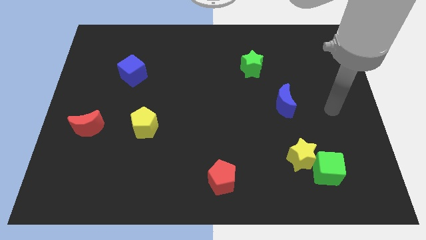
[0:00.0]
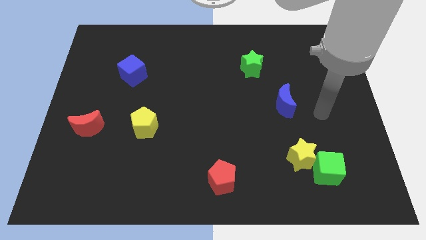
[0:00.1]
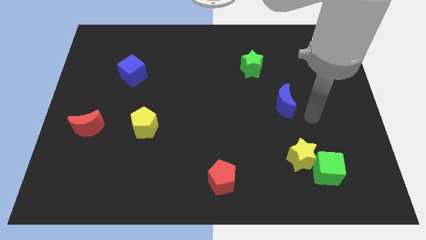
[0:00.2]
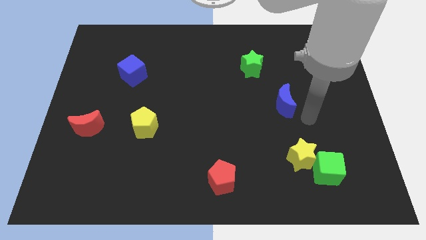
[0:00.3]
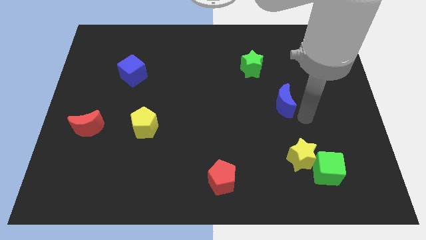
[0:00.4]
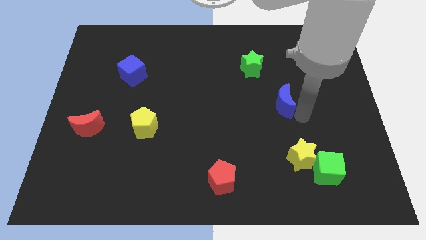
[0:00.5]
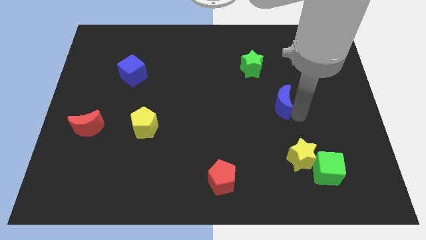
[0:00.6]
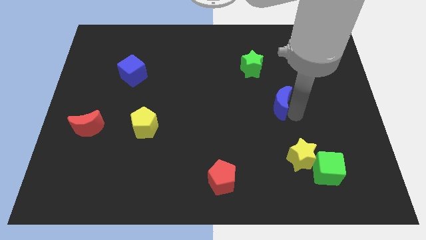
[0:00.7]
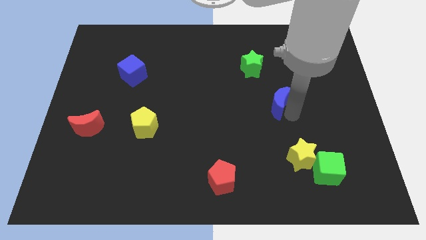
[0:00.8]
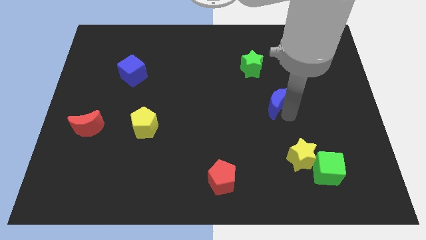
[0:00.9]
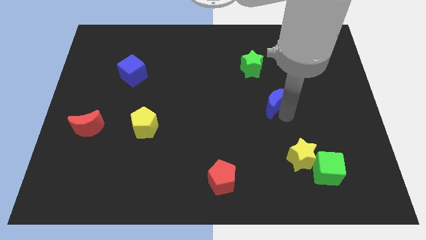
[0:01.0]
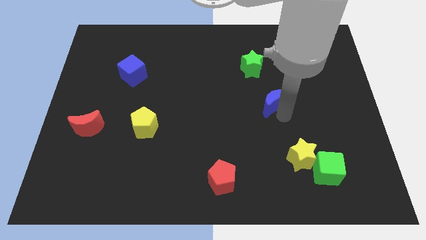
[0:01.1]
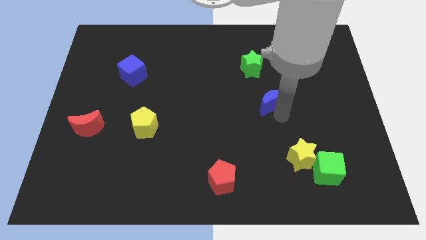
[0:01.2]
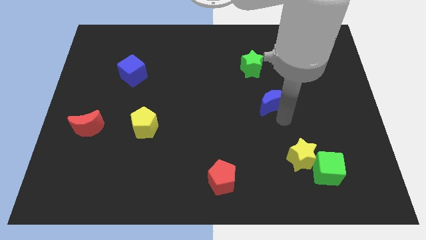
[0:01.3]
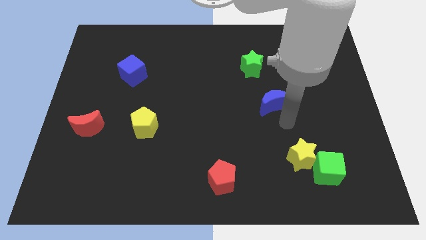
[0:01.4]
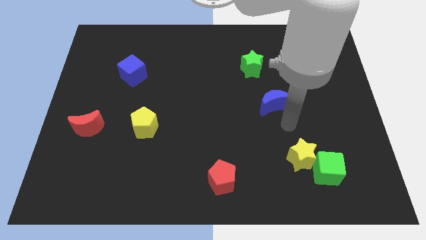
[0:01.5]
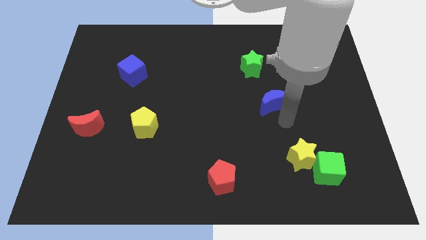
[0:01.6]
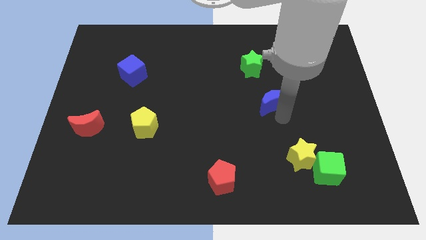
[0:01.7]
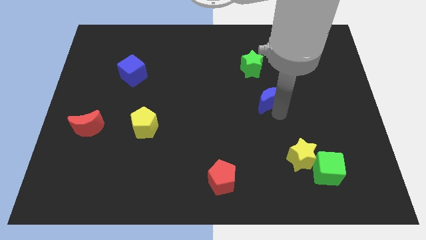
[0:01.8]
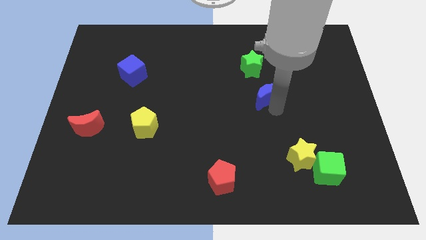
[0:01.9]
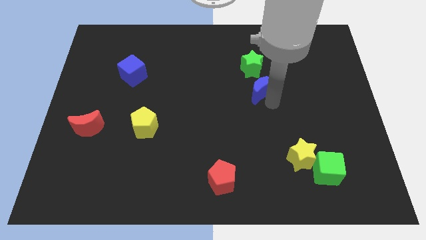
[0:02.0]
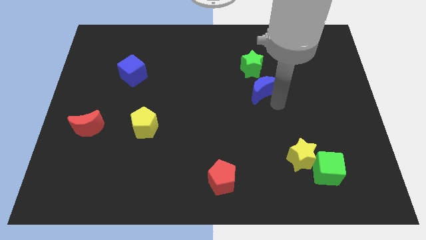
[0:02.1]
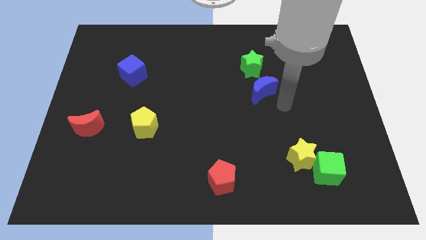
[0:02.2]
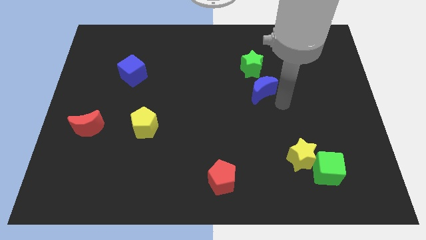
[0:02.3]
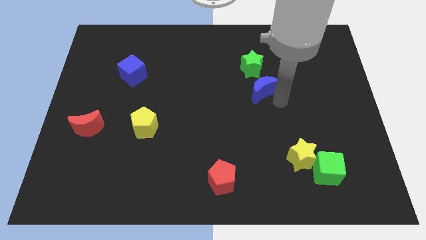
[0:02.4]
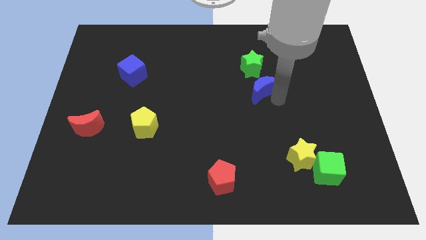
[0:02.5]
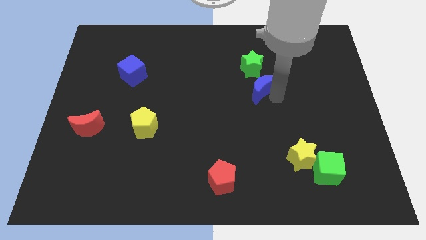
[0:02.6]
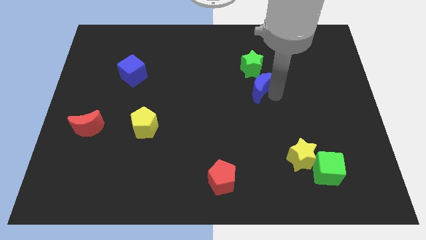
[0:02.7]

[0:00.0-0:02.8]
slide the blue moon a little bit up and to the left

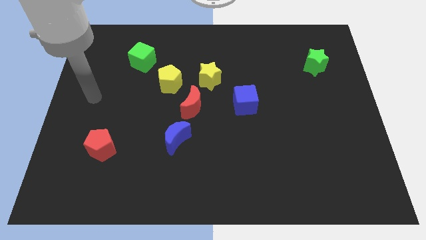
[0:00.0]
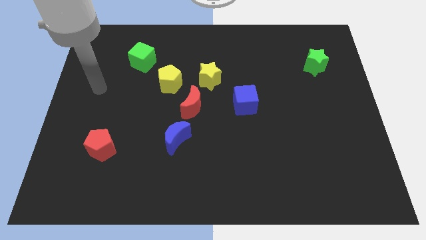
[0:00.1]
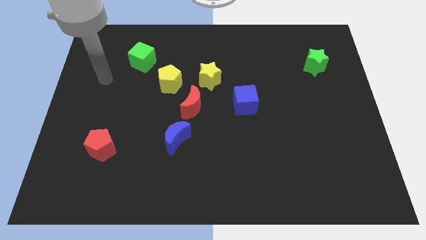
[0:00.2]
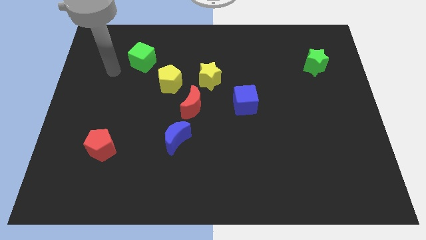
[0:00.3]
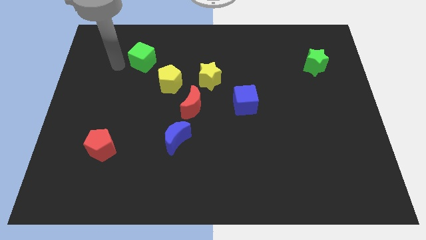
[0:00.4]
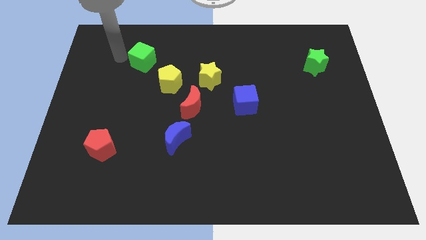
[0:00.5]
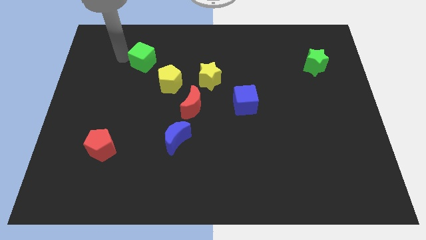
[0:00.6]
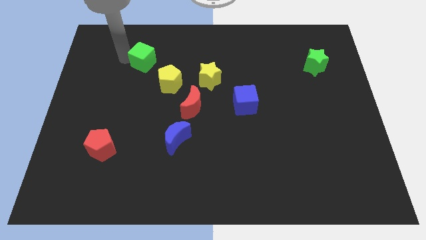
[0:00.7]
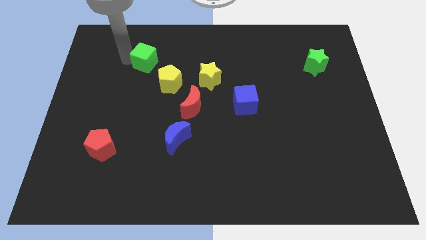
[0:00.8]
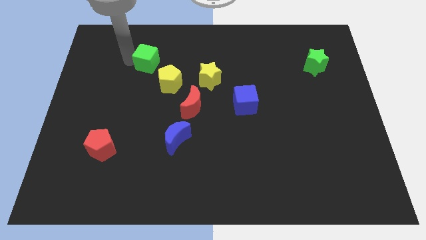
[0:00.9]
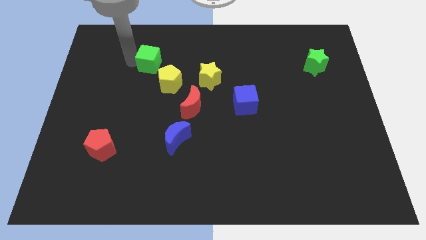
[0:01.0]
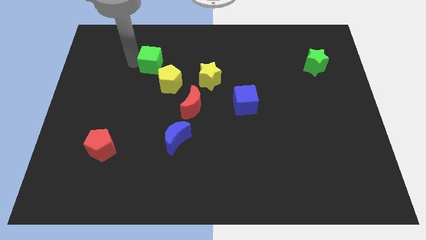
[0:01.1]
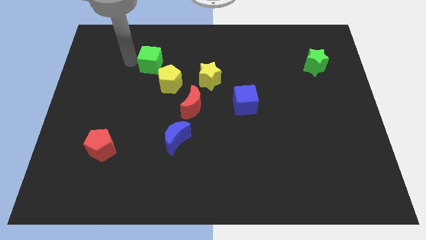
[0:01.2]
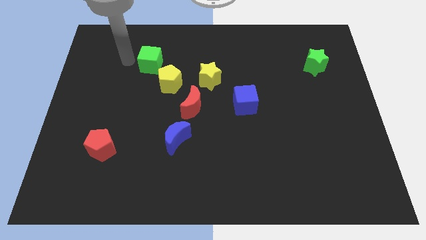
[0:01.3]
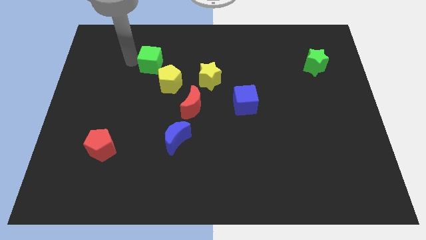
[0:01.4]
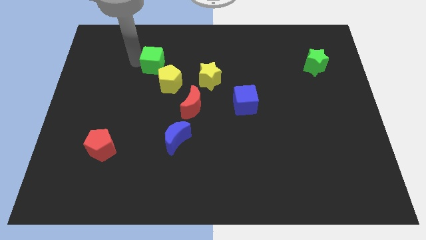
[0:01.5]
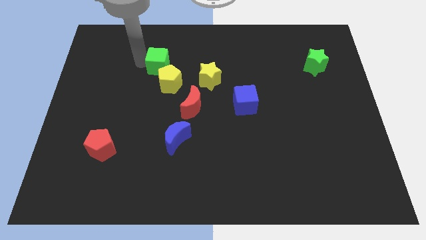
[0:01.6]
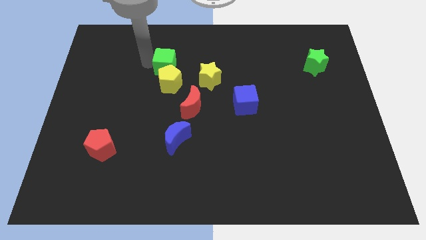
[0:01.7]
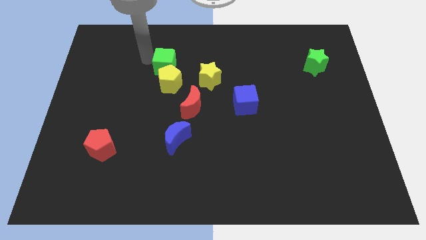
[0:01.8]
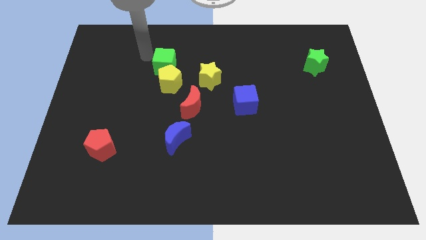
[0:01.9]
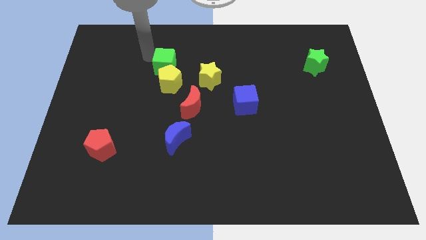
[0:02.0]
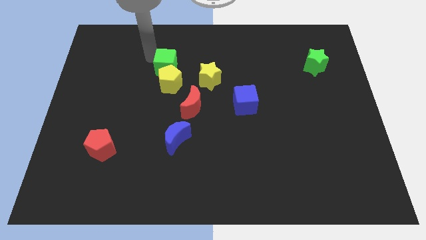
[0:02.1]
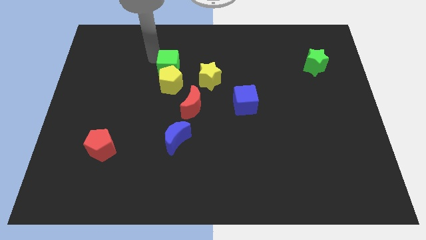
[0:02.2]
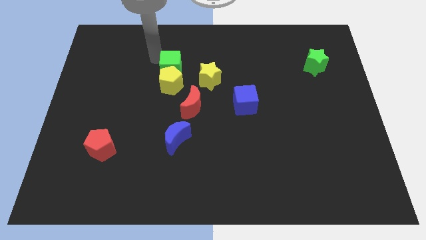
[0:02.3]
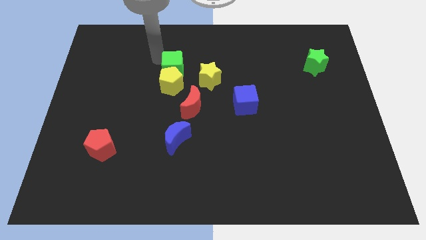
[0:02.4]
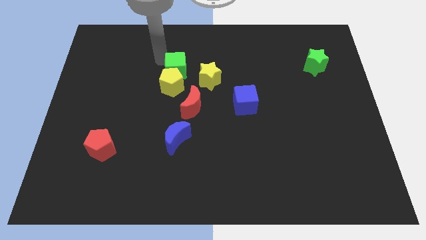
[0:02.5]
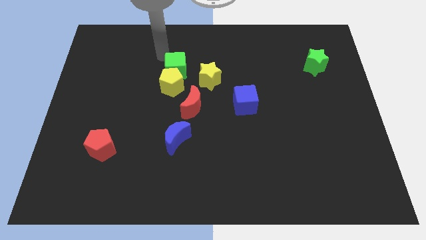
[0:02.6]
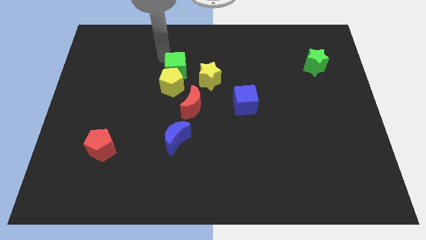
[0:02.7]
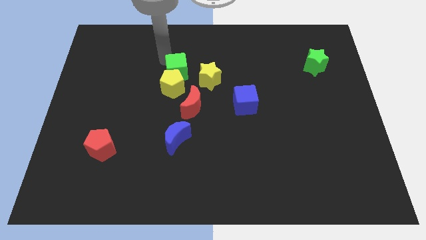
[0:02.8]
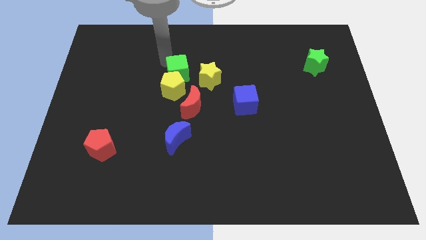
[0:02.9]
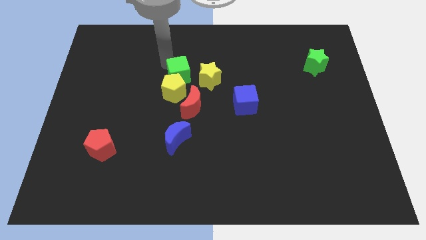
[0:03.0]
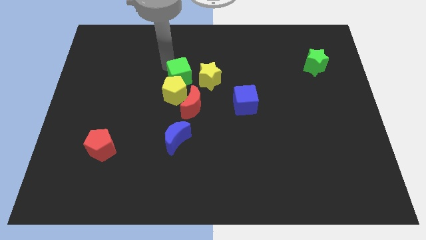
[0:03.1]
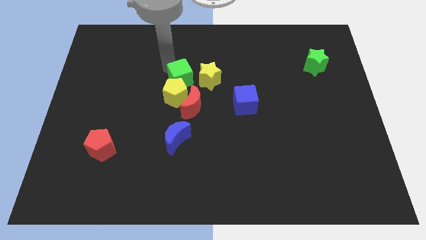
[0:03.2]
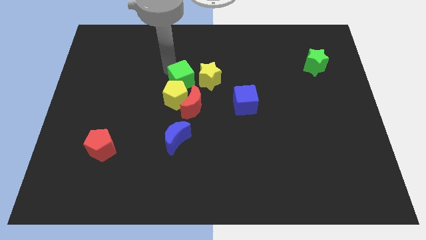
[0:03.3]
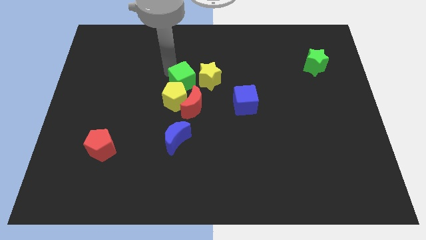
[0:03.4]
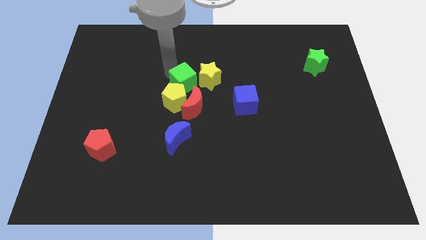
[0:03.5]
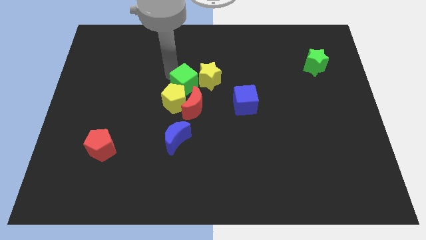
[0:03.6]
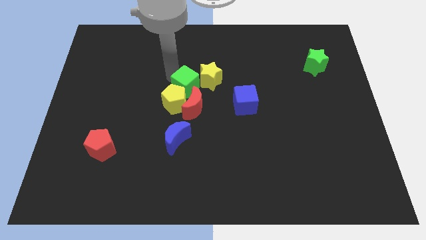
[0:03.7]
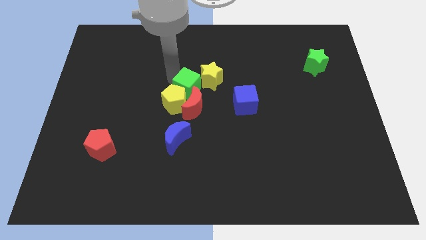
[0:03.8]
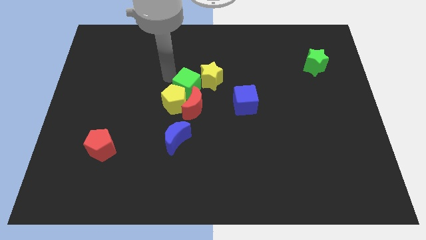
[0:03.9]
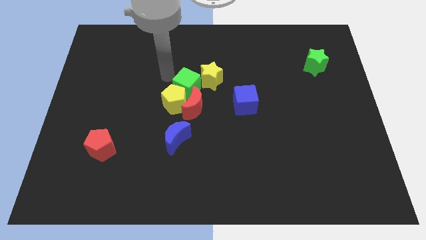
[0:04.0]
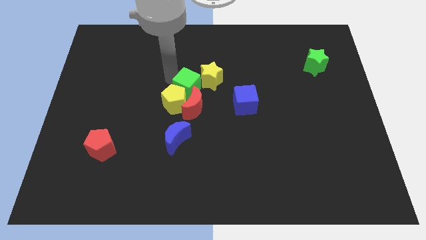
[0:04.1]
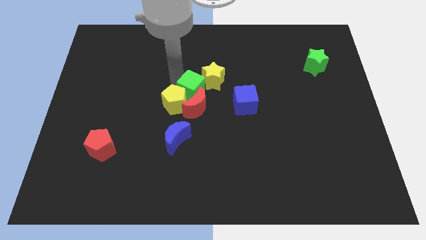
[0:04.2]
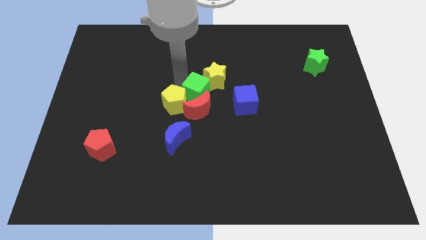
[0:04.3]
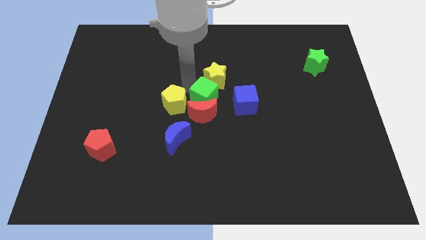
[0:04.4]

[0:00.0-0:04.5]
move the green cube down and then to the right
